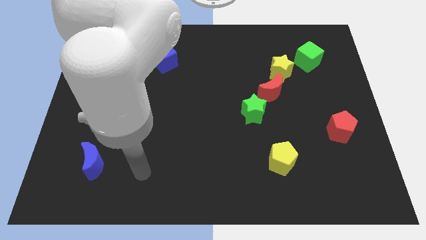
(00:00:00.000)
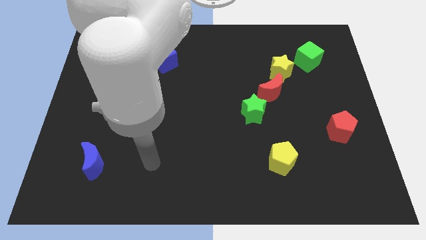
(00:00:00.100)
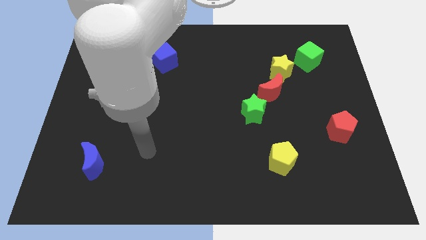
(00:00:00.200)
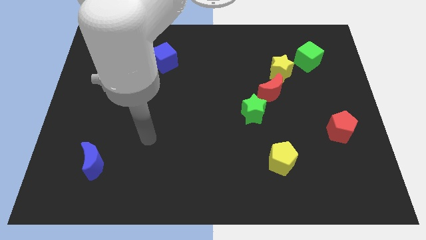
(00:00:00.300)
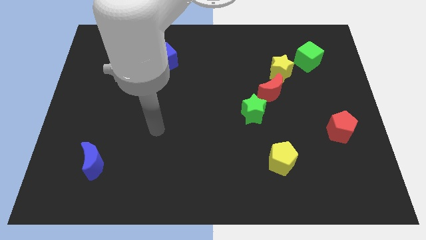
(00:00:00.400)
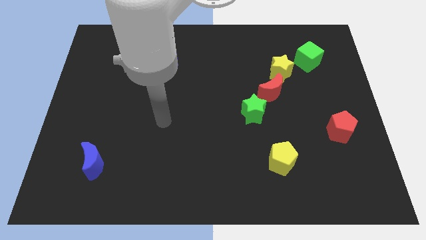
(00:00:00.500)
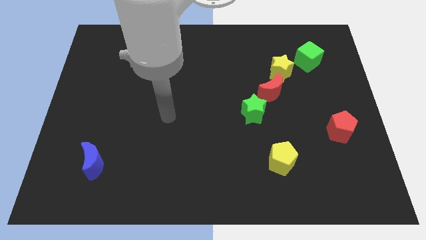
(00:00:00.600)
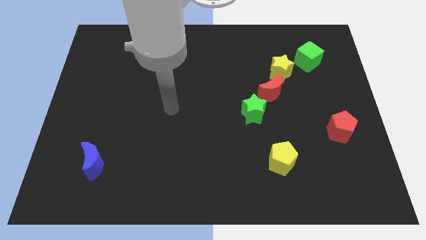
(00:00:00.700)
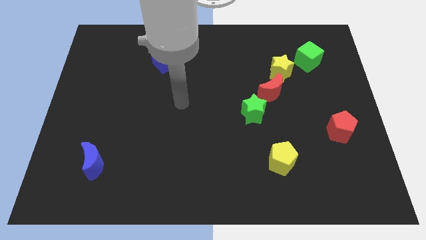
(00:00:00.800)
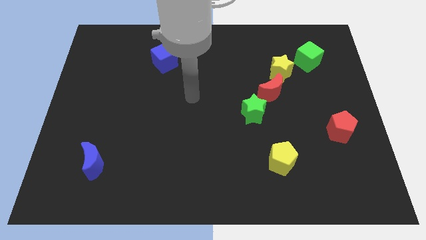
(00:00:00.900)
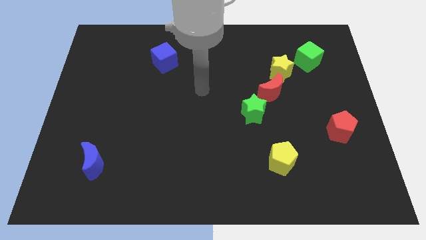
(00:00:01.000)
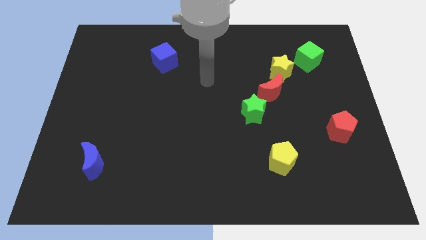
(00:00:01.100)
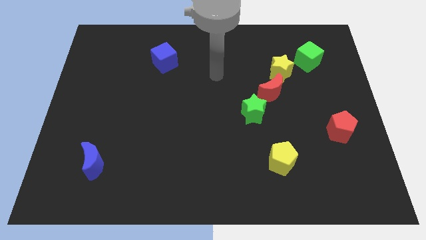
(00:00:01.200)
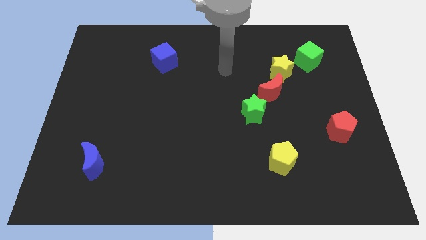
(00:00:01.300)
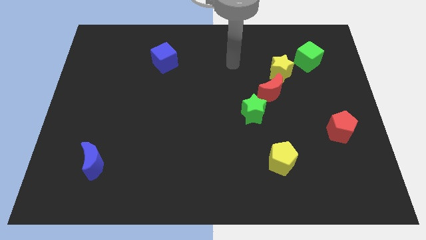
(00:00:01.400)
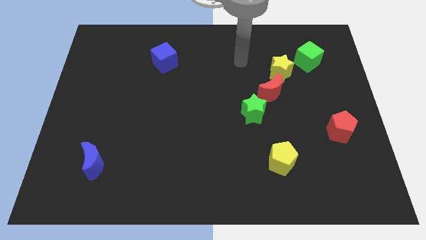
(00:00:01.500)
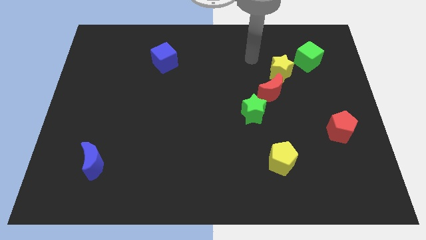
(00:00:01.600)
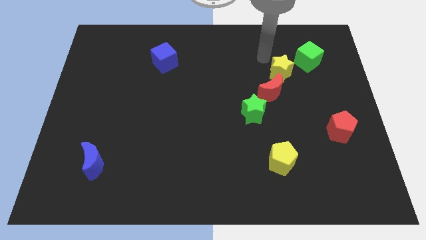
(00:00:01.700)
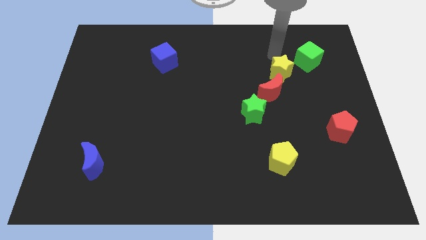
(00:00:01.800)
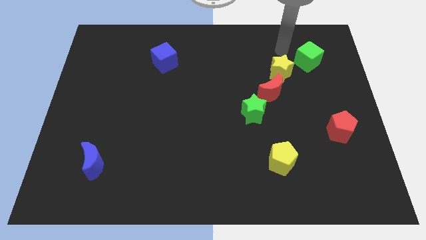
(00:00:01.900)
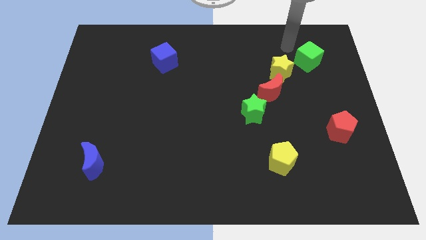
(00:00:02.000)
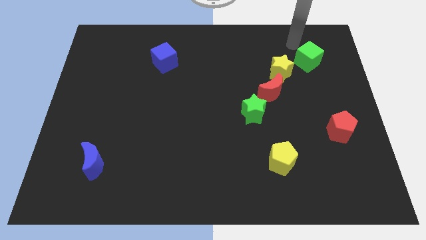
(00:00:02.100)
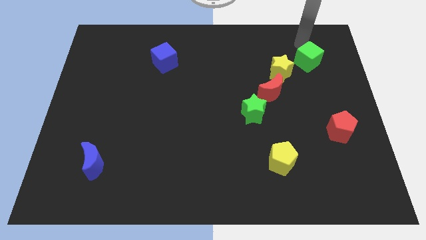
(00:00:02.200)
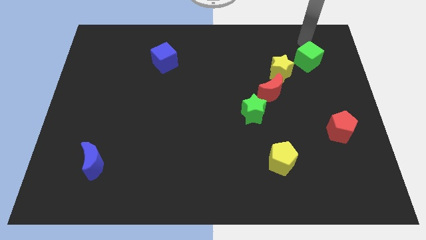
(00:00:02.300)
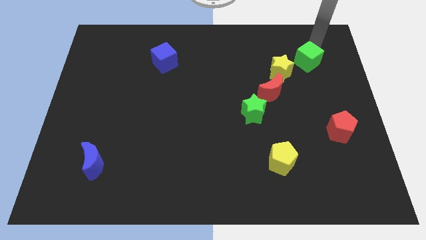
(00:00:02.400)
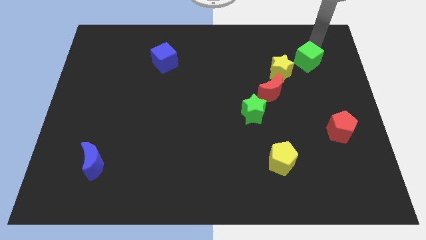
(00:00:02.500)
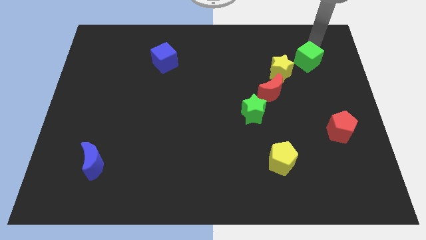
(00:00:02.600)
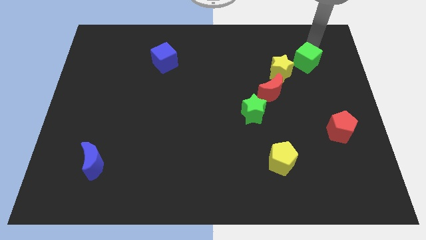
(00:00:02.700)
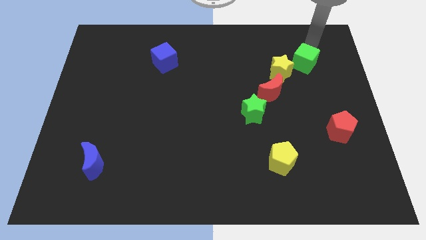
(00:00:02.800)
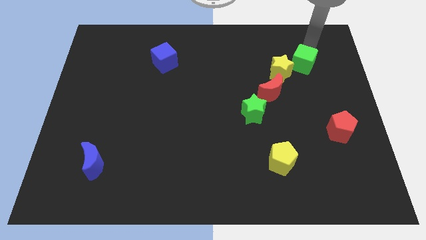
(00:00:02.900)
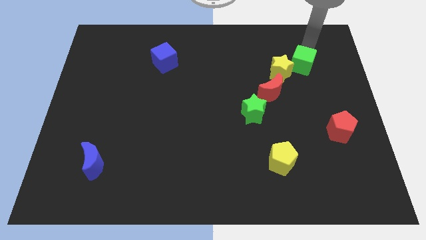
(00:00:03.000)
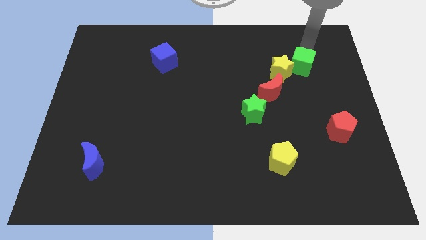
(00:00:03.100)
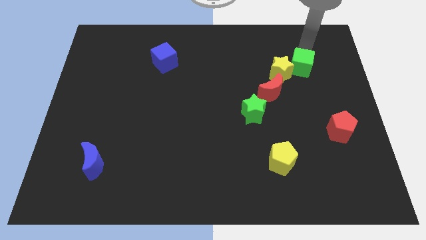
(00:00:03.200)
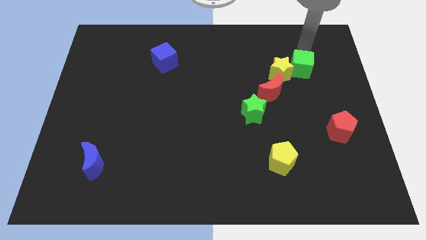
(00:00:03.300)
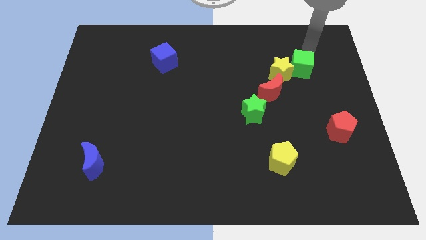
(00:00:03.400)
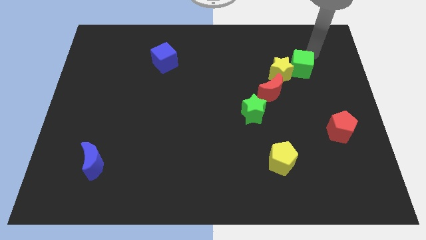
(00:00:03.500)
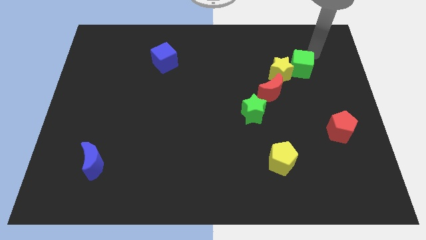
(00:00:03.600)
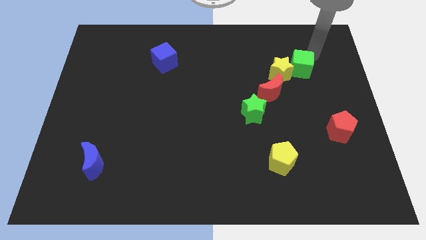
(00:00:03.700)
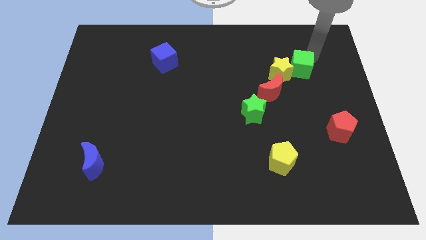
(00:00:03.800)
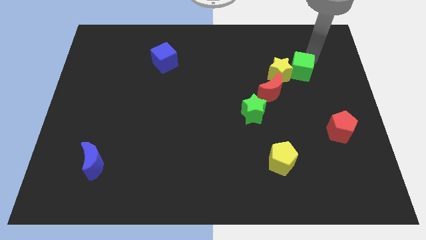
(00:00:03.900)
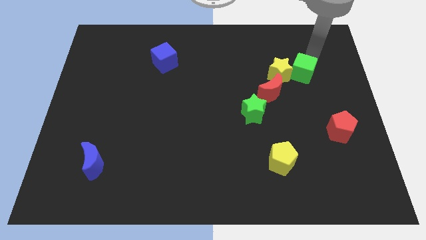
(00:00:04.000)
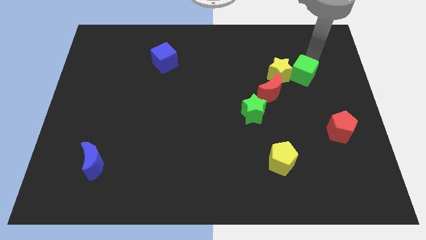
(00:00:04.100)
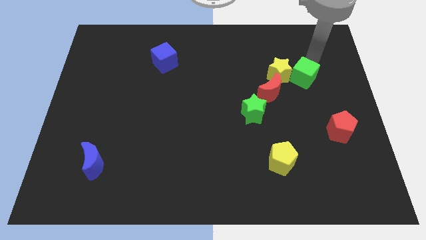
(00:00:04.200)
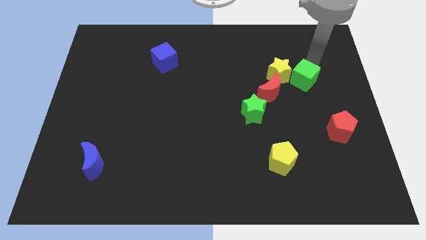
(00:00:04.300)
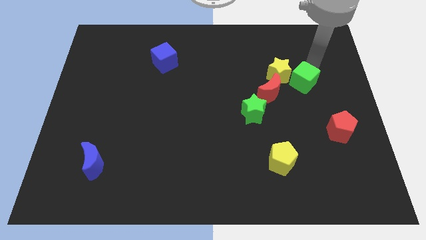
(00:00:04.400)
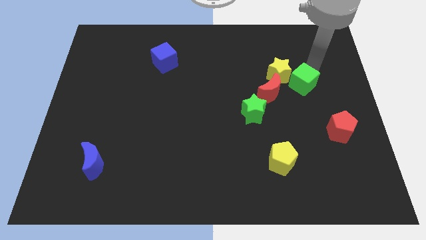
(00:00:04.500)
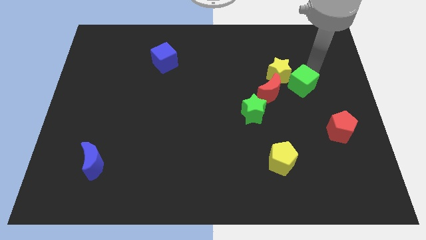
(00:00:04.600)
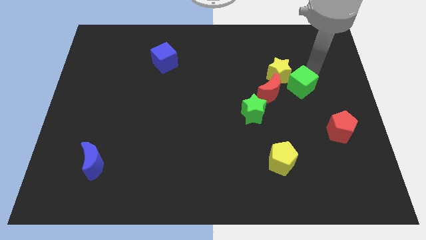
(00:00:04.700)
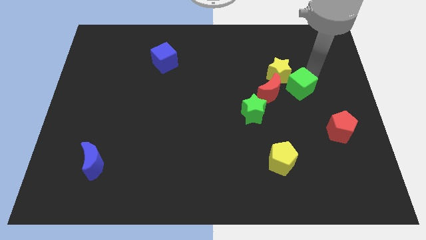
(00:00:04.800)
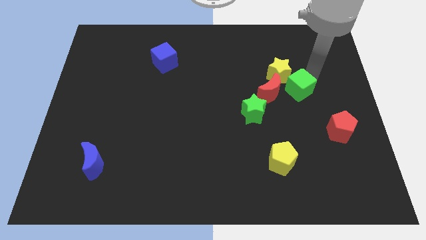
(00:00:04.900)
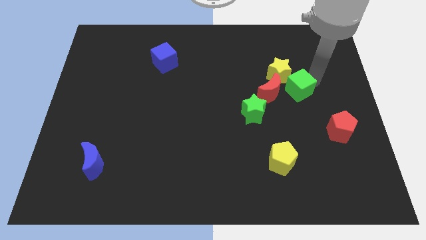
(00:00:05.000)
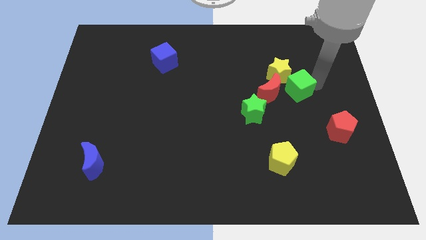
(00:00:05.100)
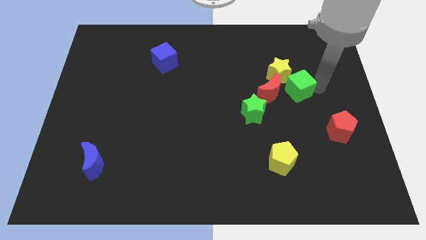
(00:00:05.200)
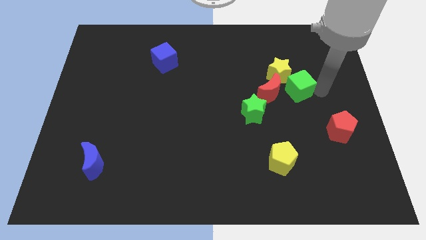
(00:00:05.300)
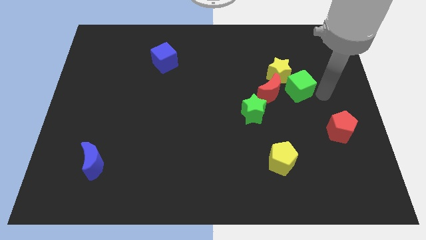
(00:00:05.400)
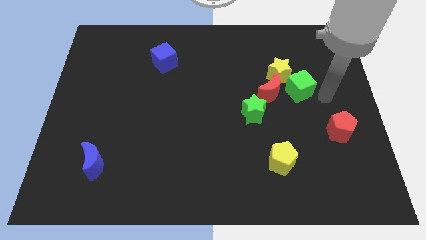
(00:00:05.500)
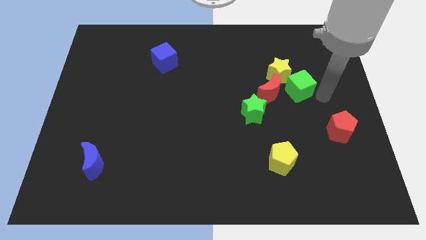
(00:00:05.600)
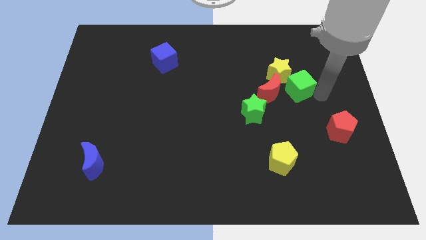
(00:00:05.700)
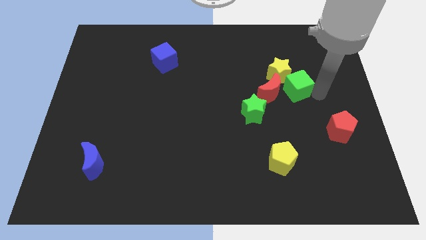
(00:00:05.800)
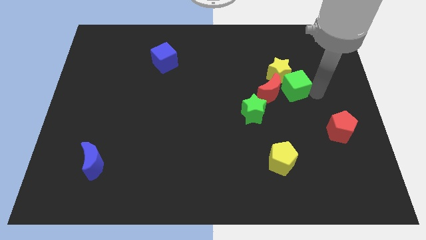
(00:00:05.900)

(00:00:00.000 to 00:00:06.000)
push the green cube next to the red moon

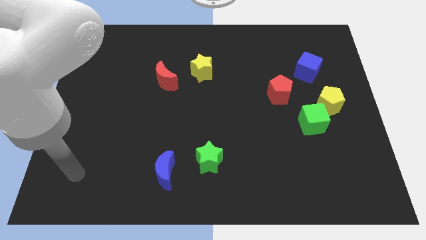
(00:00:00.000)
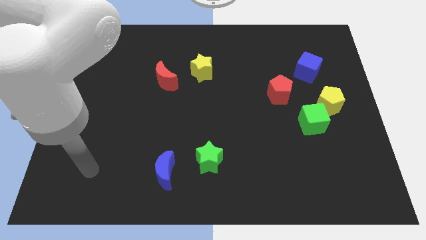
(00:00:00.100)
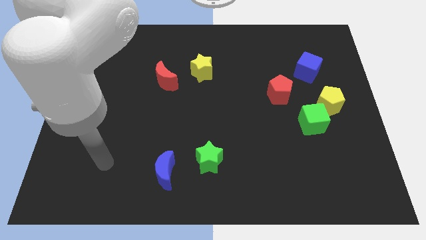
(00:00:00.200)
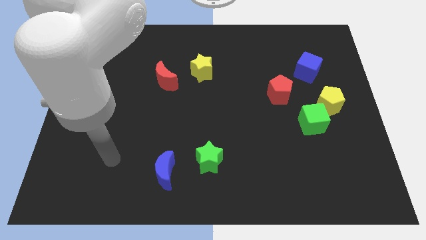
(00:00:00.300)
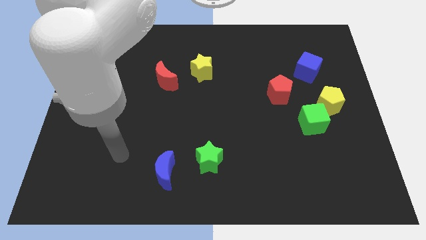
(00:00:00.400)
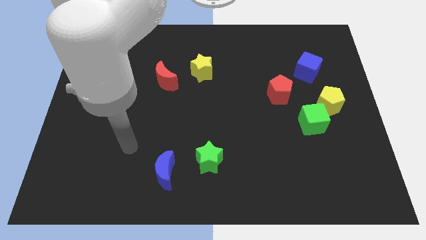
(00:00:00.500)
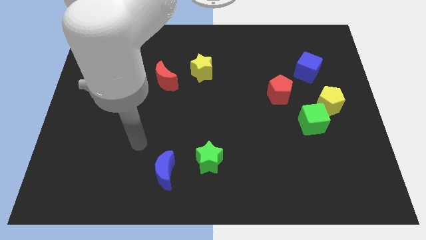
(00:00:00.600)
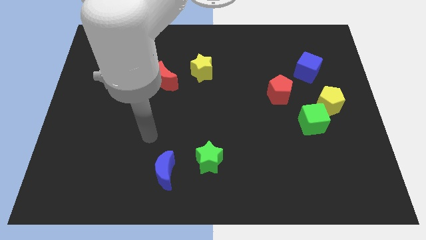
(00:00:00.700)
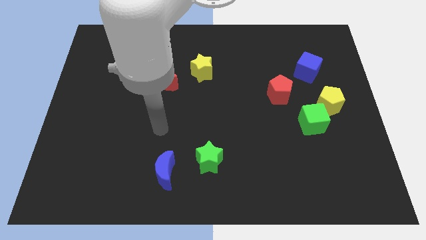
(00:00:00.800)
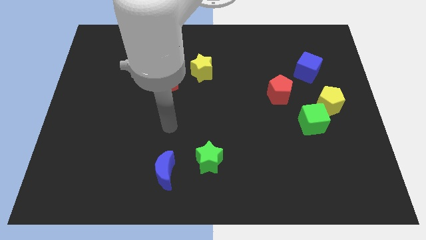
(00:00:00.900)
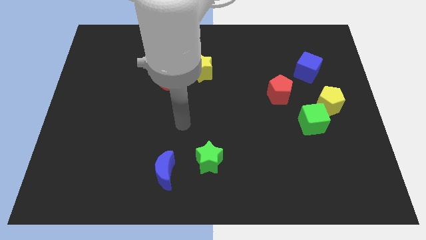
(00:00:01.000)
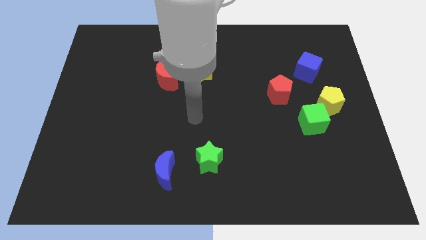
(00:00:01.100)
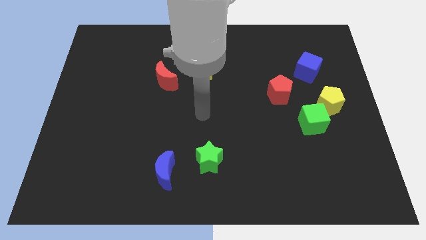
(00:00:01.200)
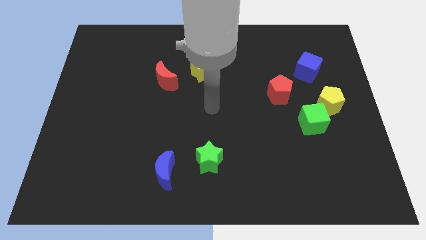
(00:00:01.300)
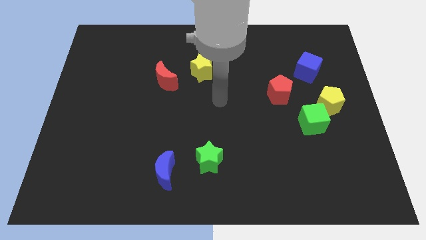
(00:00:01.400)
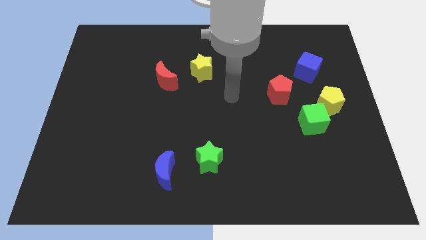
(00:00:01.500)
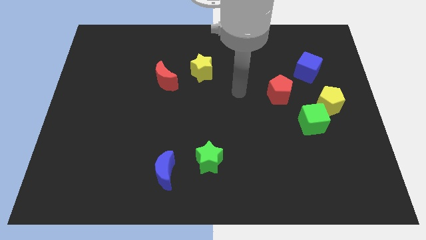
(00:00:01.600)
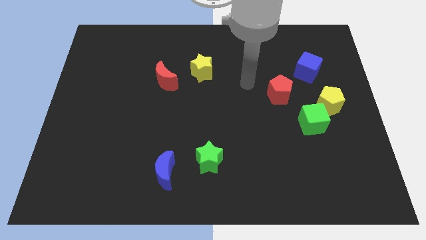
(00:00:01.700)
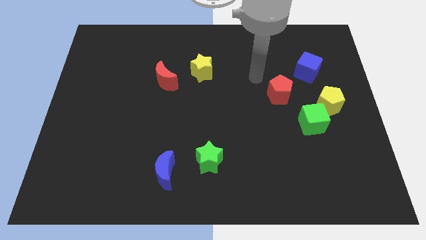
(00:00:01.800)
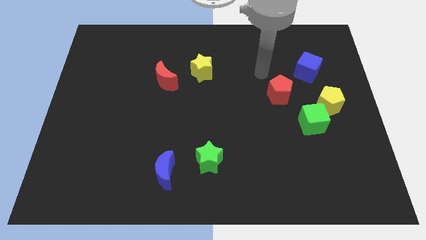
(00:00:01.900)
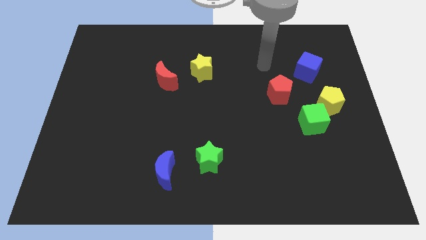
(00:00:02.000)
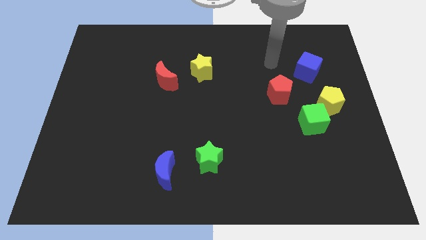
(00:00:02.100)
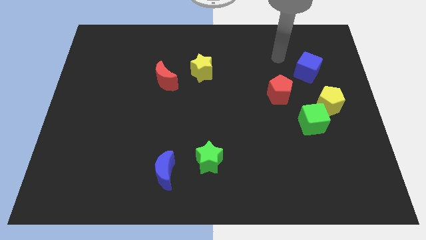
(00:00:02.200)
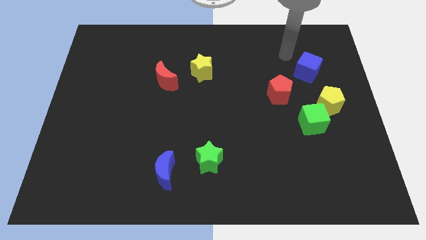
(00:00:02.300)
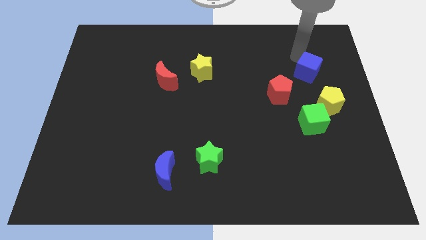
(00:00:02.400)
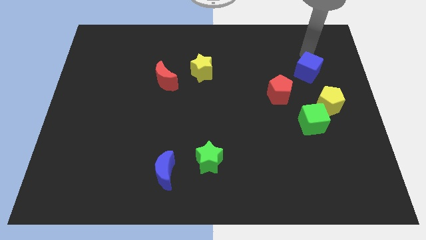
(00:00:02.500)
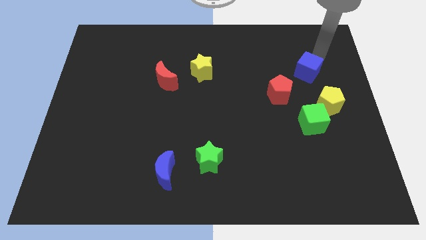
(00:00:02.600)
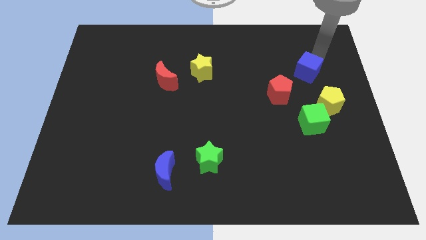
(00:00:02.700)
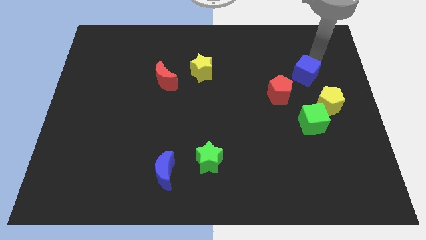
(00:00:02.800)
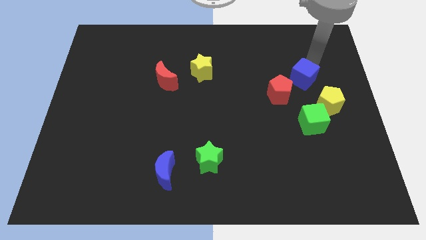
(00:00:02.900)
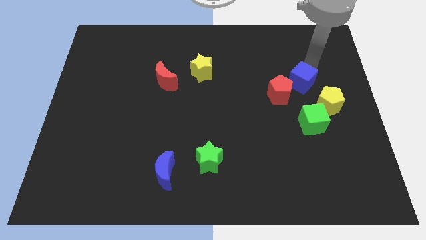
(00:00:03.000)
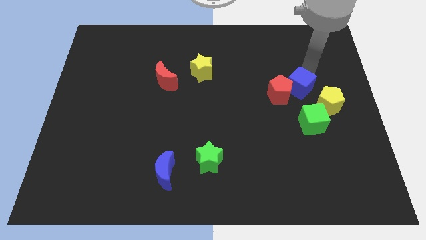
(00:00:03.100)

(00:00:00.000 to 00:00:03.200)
slide the blue cube to the red pentagon
